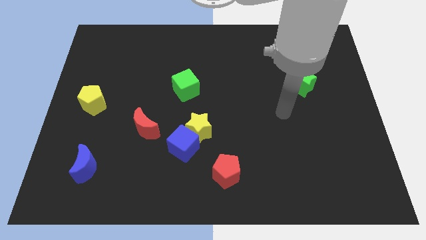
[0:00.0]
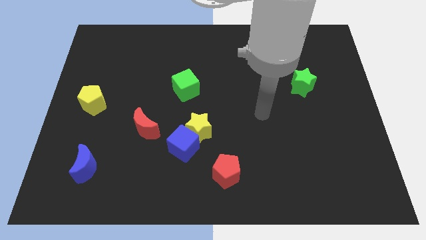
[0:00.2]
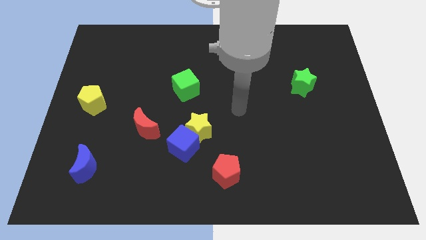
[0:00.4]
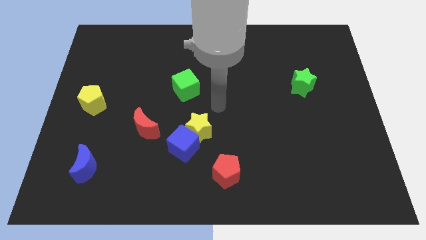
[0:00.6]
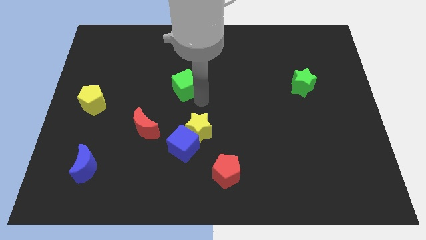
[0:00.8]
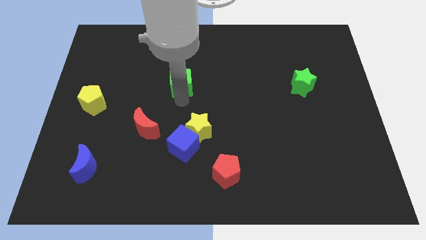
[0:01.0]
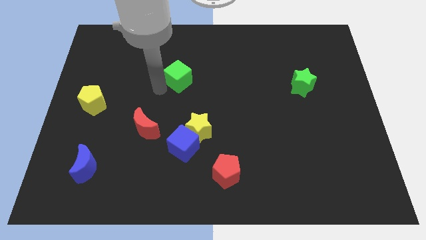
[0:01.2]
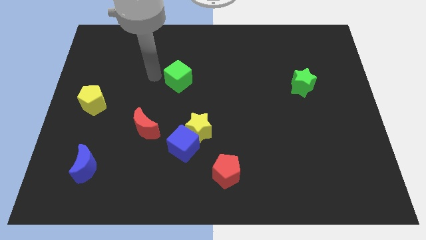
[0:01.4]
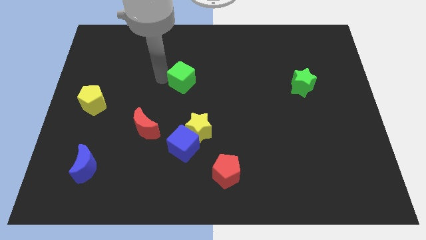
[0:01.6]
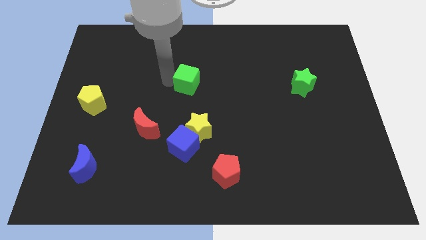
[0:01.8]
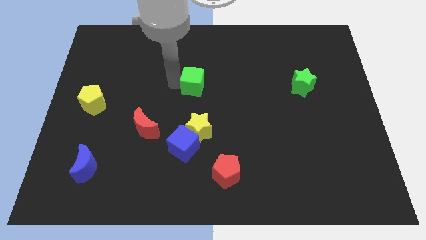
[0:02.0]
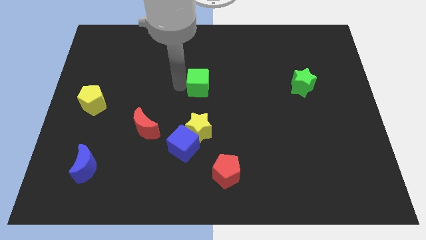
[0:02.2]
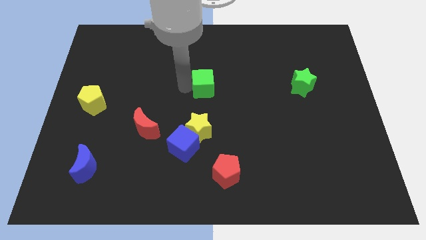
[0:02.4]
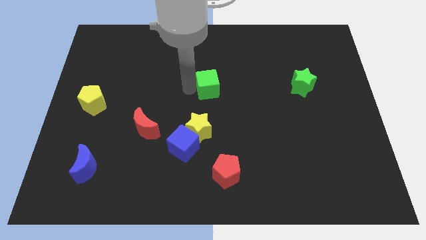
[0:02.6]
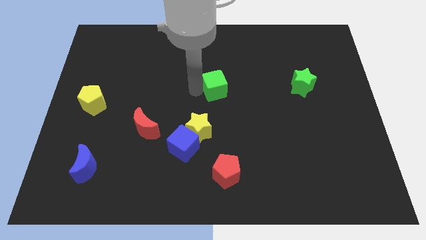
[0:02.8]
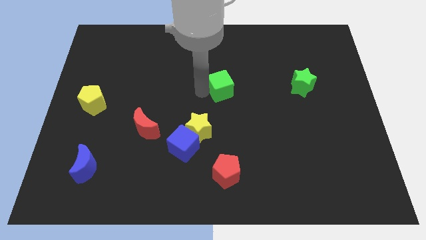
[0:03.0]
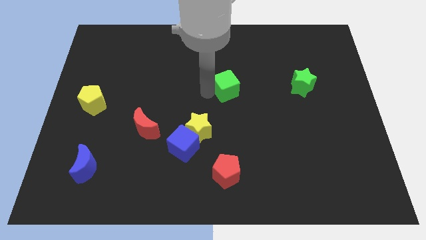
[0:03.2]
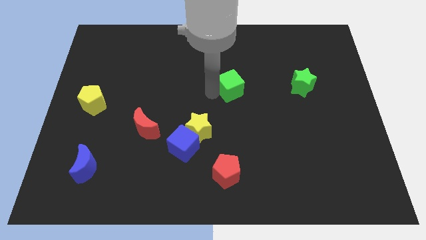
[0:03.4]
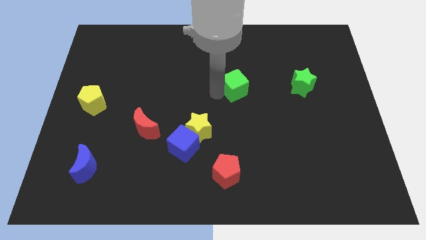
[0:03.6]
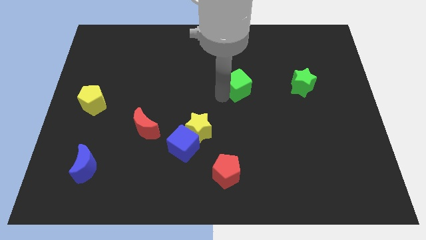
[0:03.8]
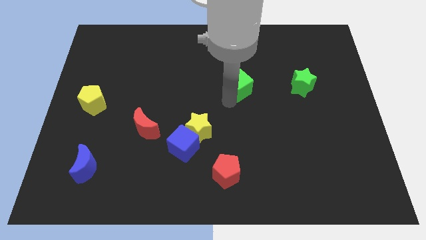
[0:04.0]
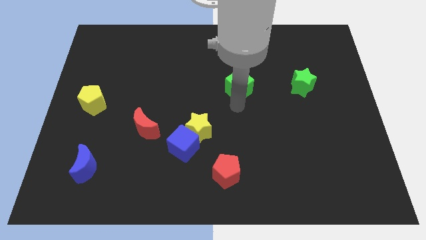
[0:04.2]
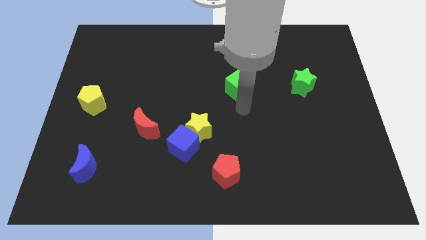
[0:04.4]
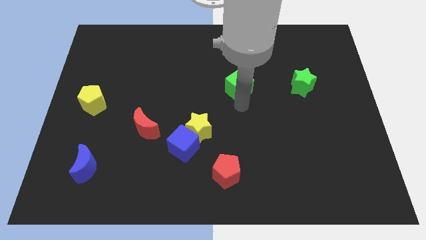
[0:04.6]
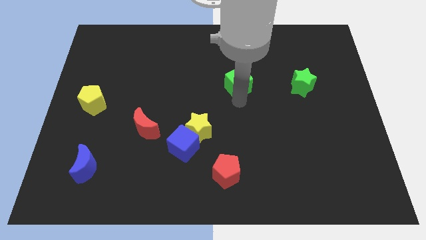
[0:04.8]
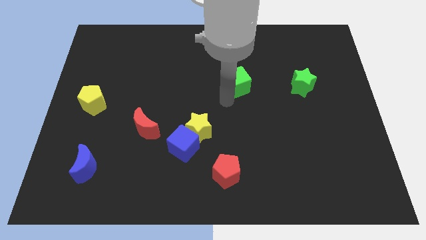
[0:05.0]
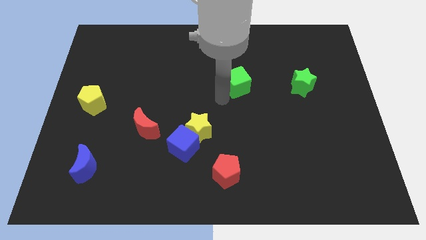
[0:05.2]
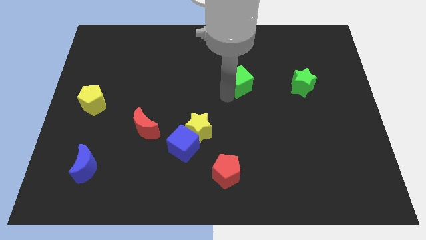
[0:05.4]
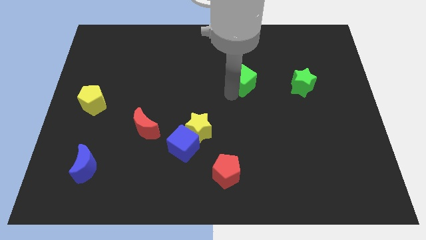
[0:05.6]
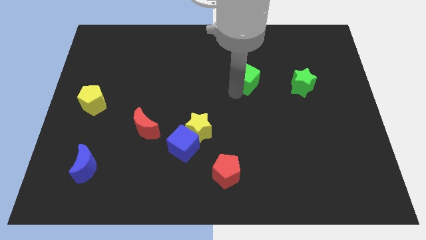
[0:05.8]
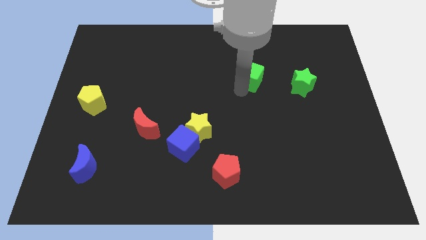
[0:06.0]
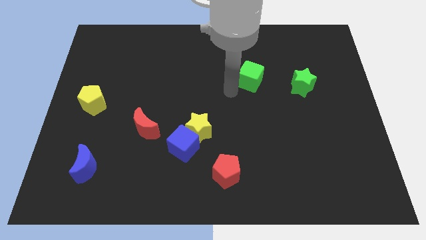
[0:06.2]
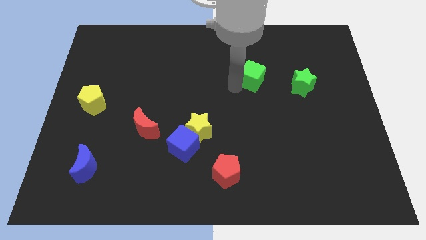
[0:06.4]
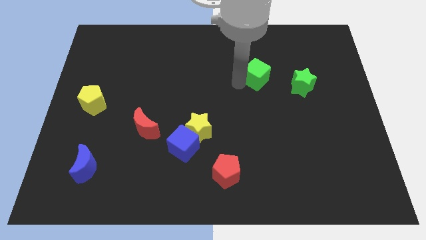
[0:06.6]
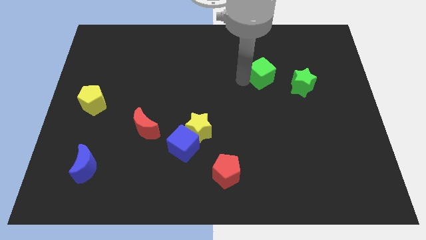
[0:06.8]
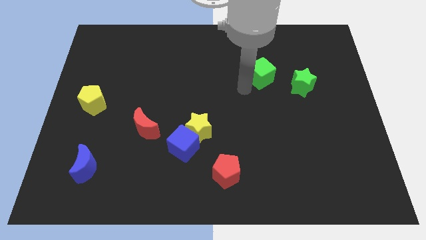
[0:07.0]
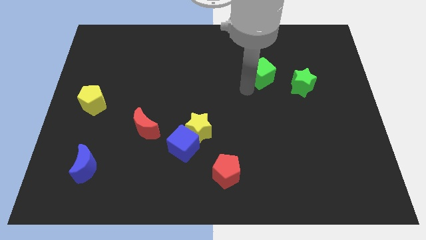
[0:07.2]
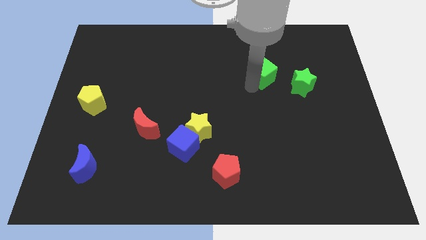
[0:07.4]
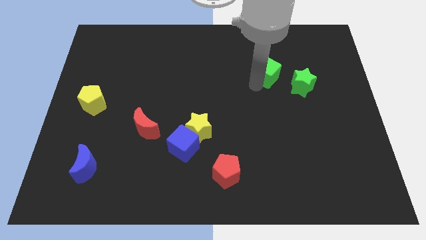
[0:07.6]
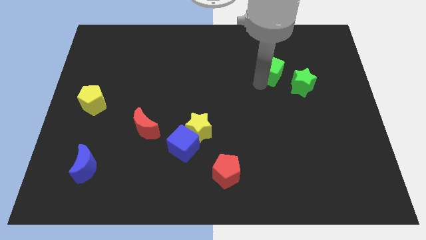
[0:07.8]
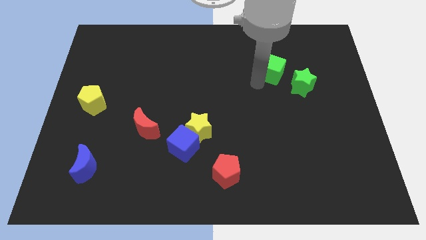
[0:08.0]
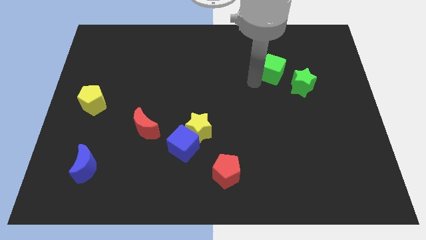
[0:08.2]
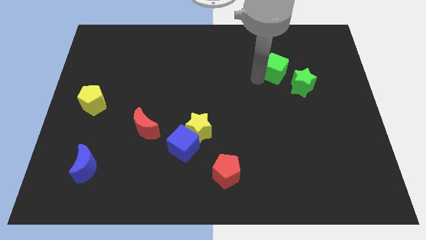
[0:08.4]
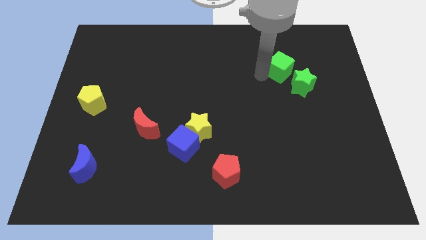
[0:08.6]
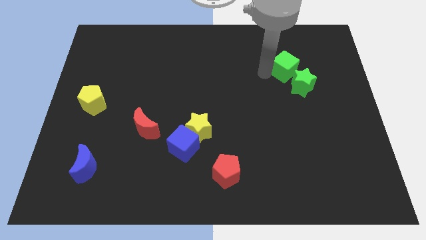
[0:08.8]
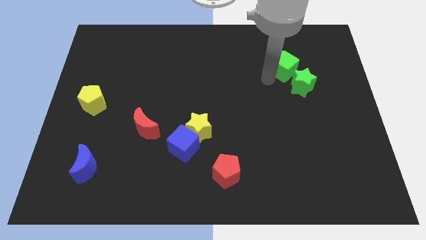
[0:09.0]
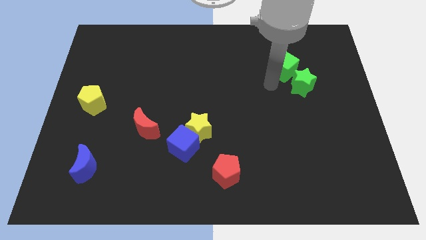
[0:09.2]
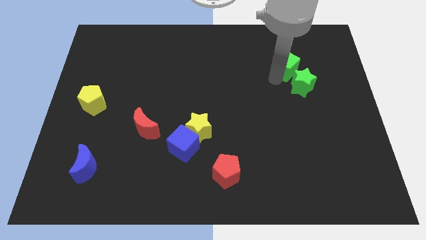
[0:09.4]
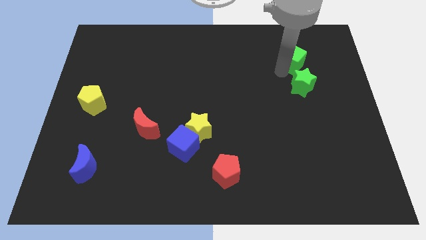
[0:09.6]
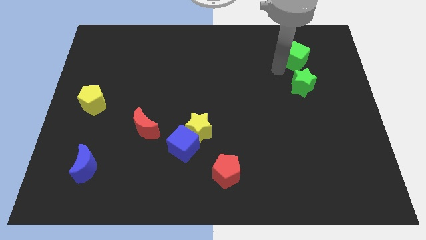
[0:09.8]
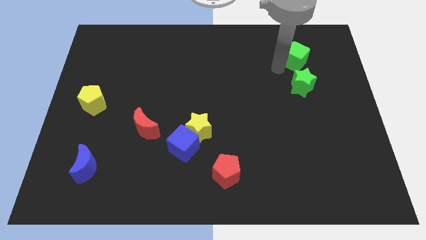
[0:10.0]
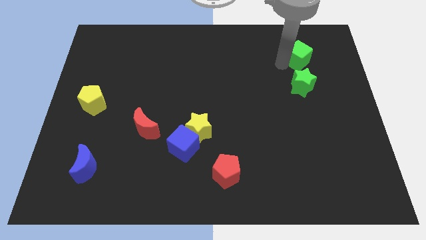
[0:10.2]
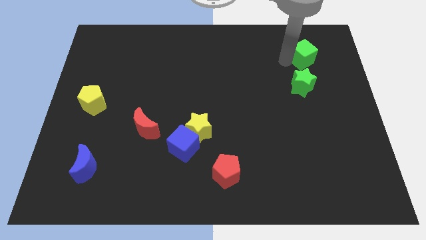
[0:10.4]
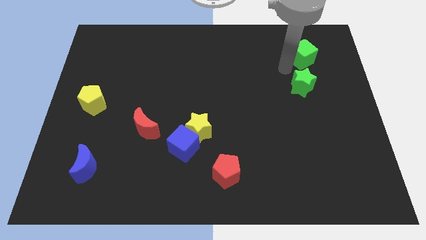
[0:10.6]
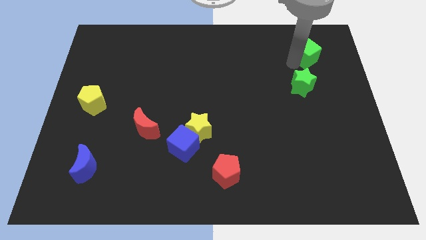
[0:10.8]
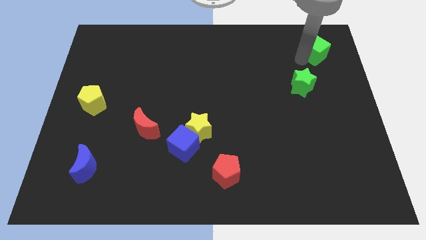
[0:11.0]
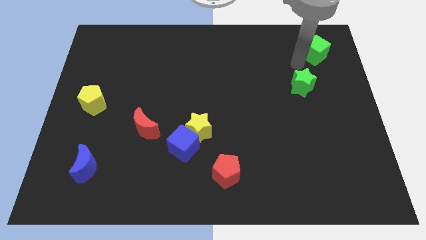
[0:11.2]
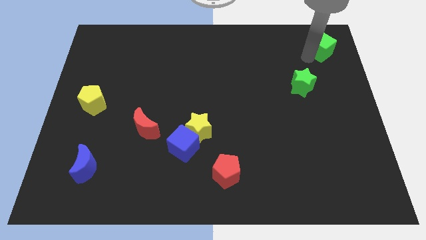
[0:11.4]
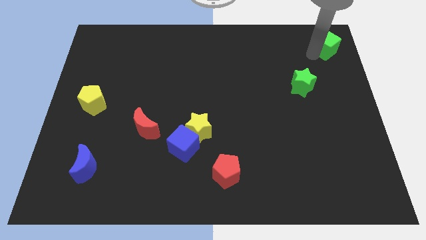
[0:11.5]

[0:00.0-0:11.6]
push the green cube to the top right corner

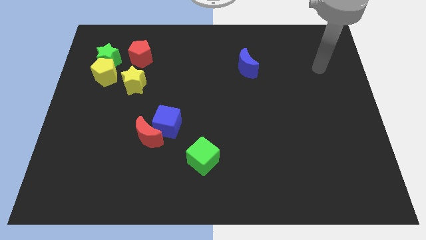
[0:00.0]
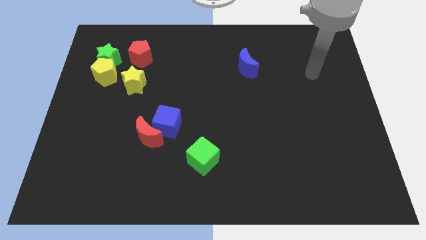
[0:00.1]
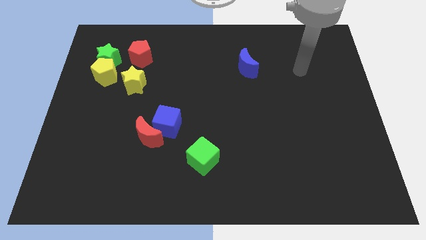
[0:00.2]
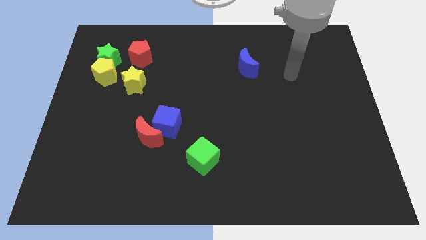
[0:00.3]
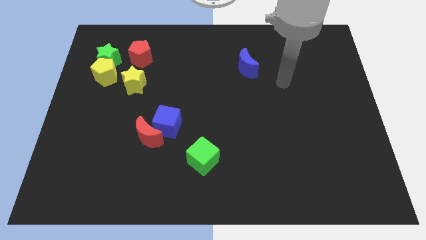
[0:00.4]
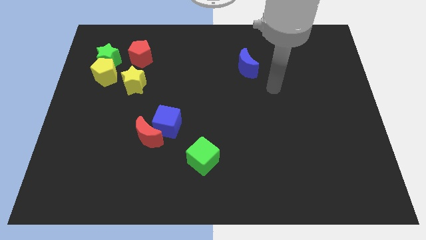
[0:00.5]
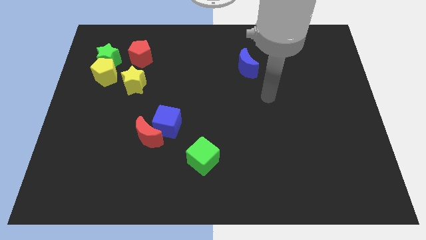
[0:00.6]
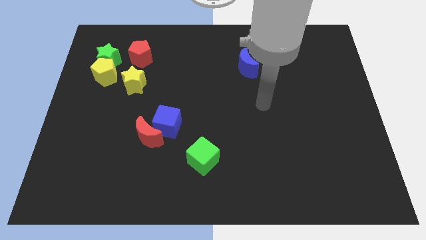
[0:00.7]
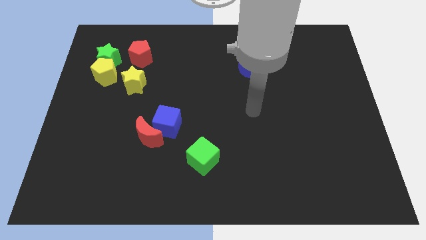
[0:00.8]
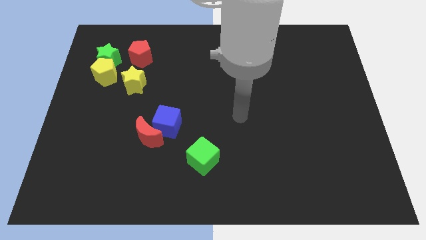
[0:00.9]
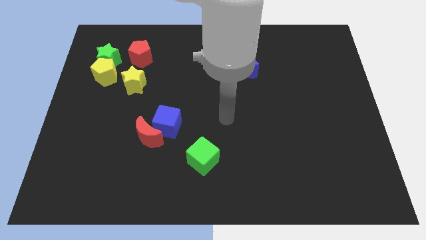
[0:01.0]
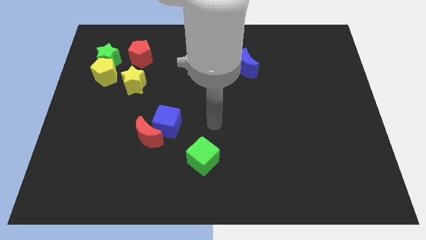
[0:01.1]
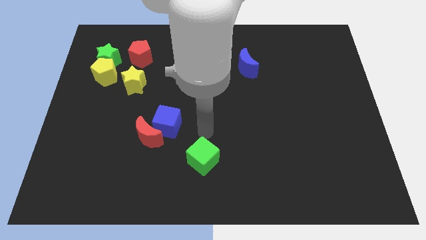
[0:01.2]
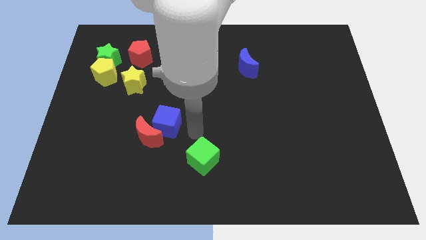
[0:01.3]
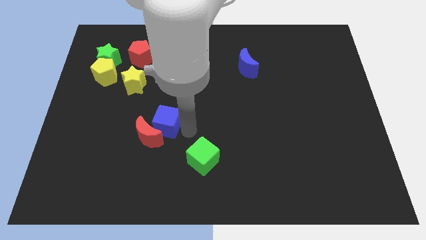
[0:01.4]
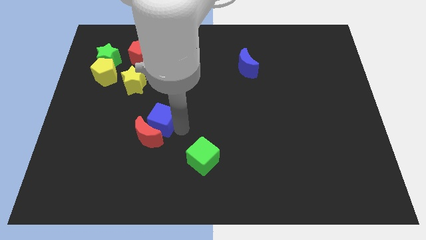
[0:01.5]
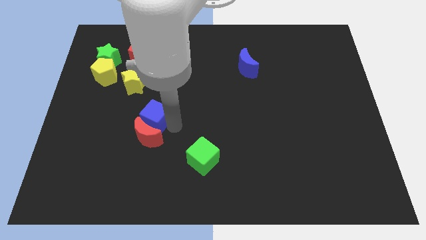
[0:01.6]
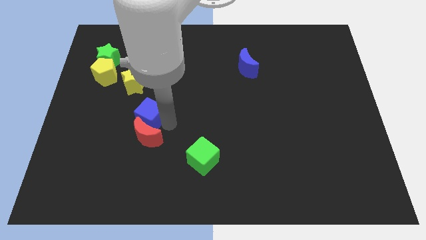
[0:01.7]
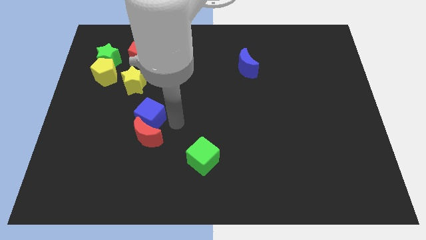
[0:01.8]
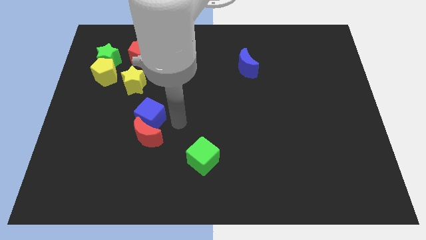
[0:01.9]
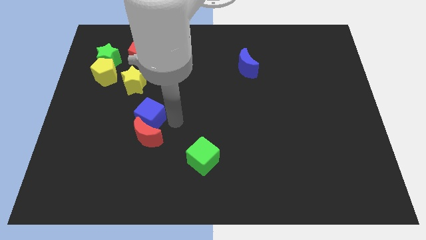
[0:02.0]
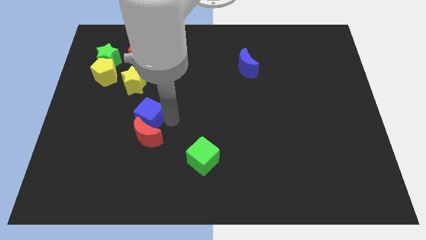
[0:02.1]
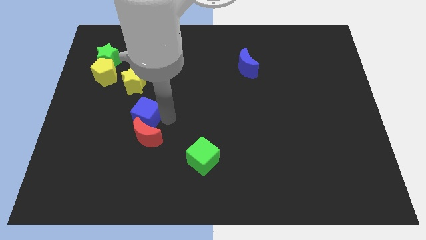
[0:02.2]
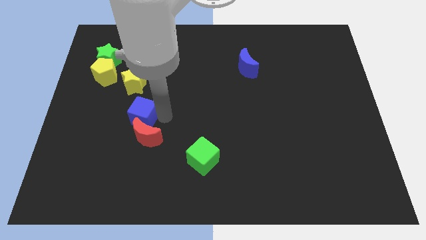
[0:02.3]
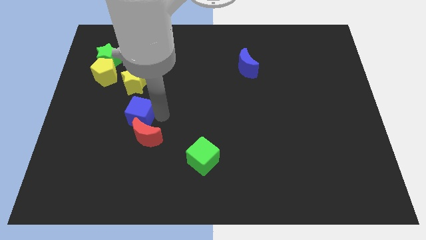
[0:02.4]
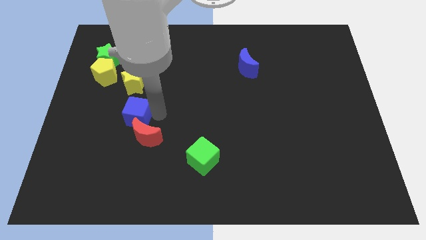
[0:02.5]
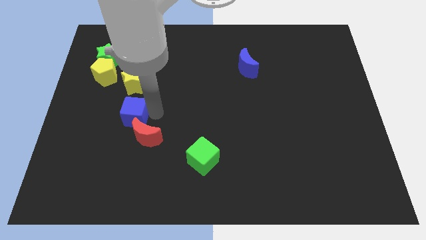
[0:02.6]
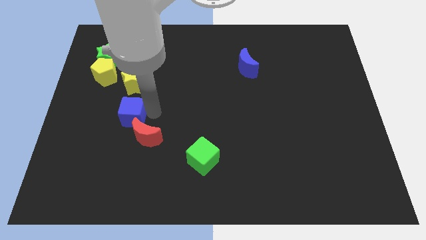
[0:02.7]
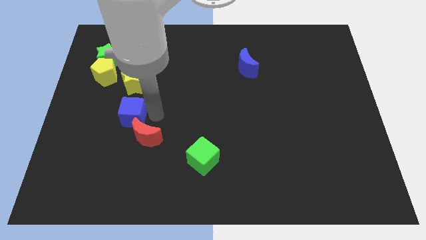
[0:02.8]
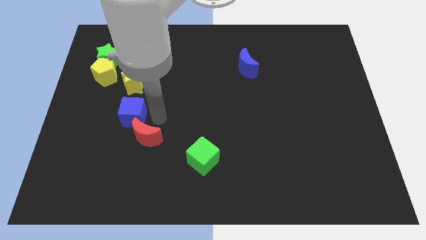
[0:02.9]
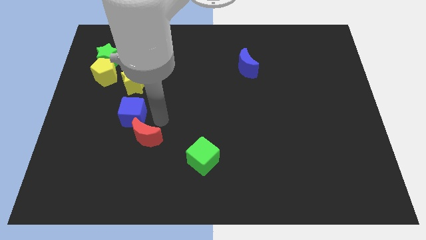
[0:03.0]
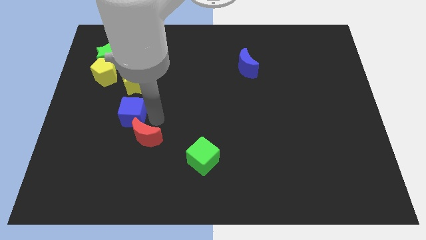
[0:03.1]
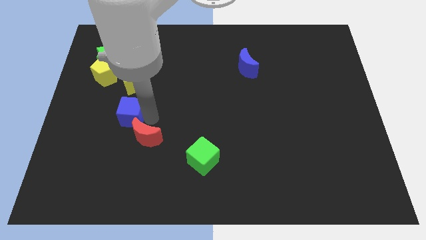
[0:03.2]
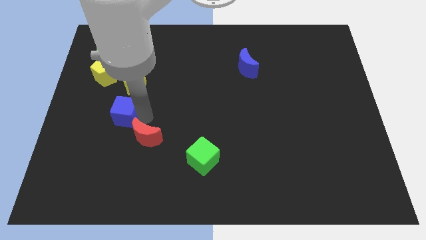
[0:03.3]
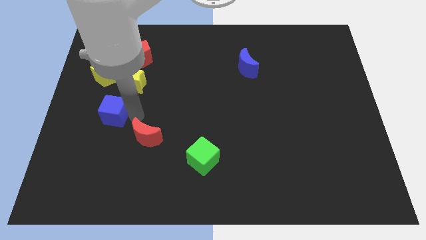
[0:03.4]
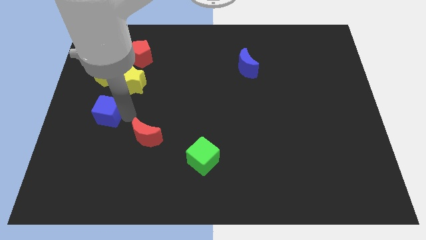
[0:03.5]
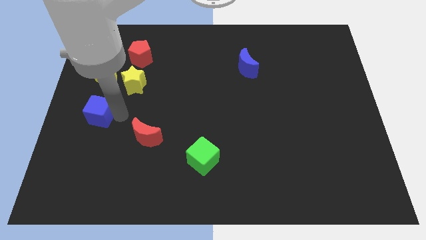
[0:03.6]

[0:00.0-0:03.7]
push the blue cube to the center left
